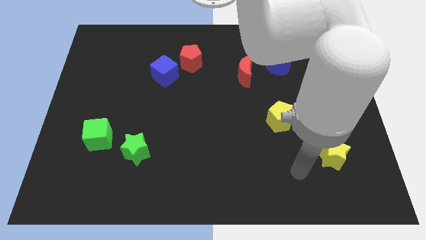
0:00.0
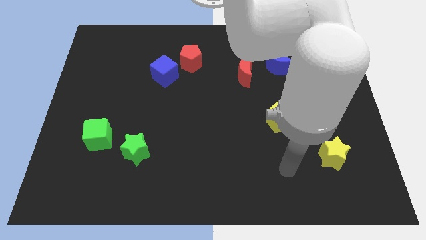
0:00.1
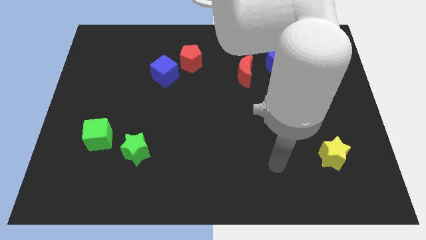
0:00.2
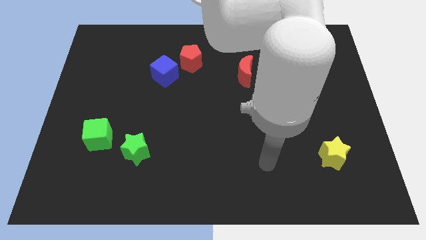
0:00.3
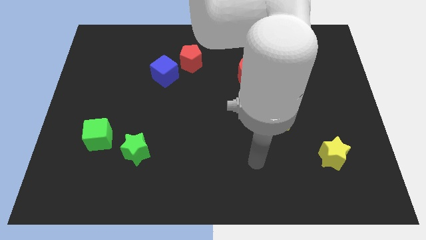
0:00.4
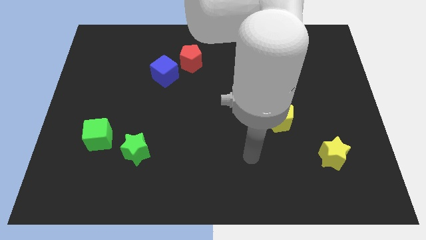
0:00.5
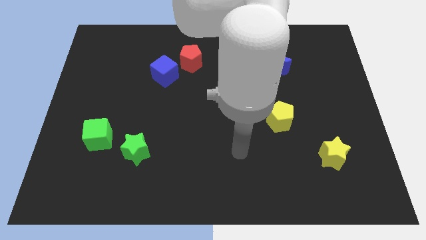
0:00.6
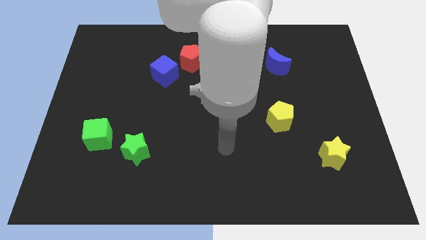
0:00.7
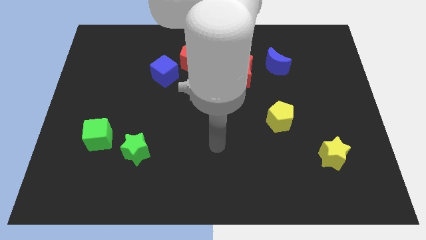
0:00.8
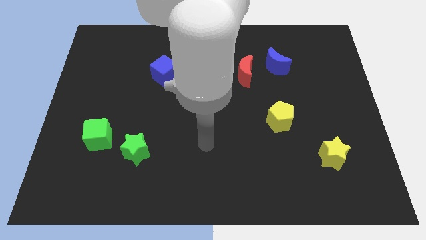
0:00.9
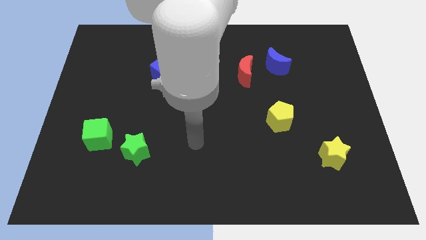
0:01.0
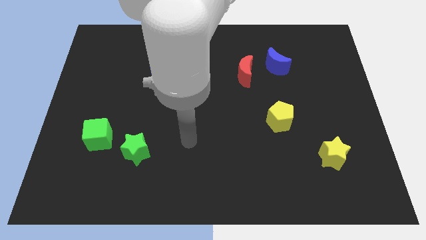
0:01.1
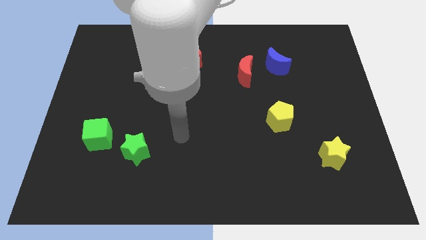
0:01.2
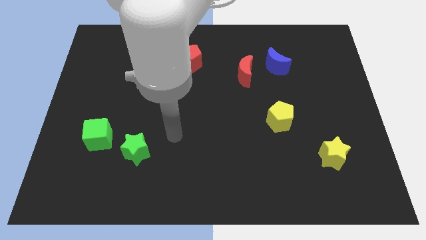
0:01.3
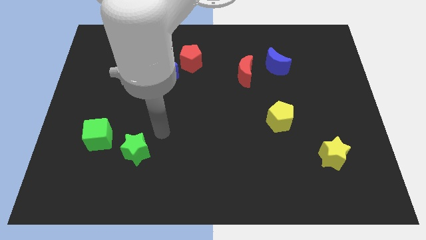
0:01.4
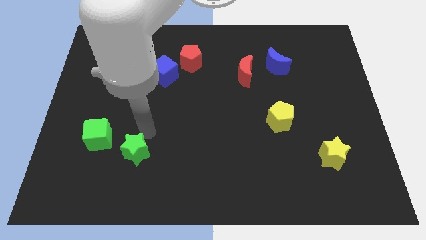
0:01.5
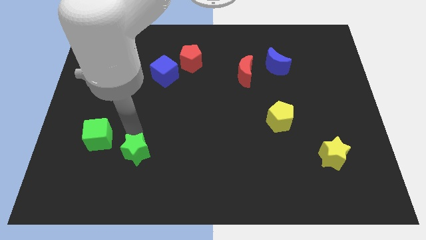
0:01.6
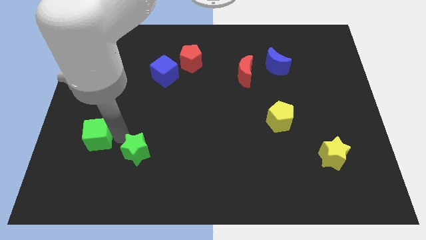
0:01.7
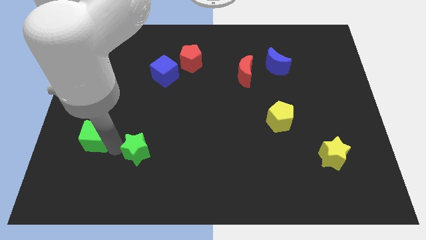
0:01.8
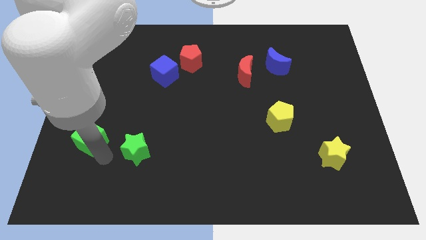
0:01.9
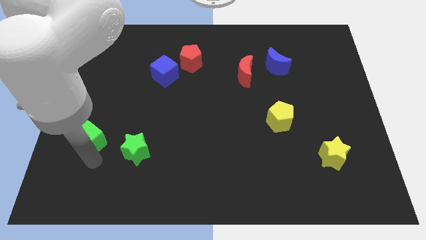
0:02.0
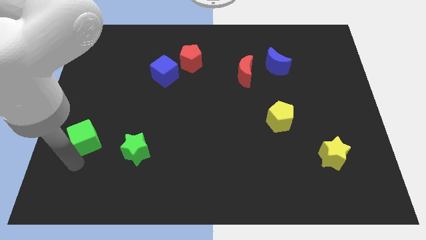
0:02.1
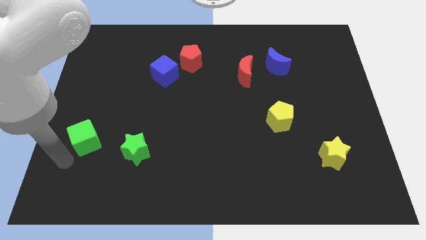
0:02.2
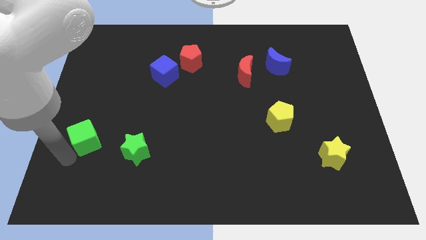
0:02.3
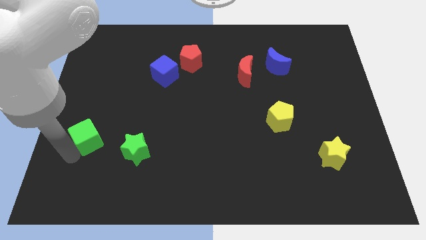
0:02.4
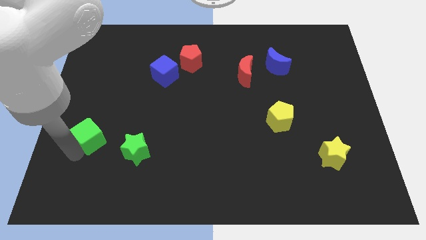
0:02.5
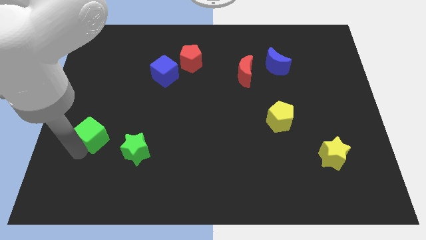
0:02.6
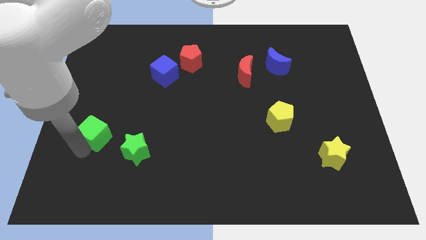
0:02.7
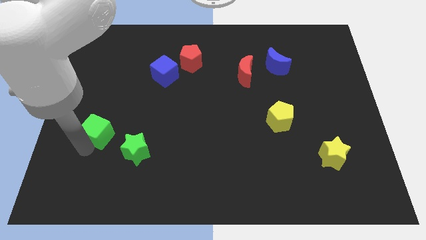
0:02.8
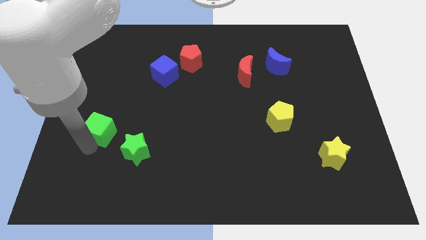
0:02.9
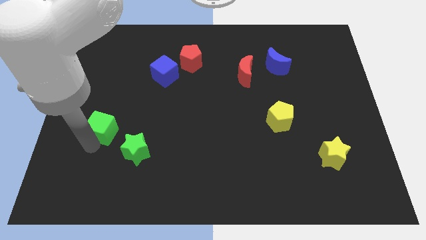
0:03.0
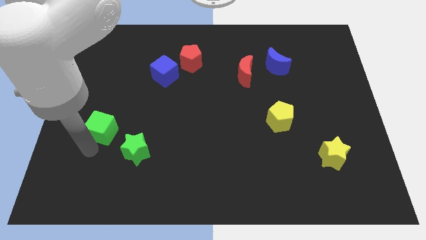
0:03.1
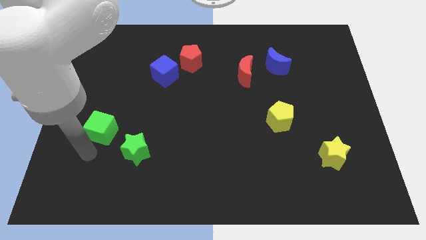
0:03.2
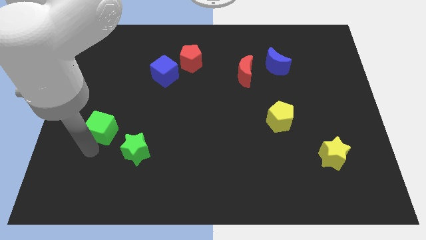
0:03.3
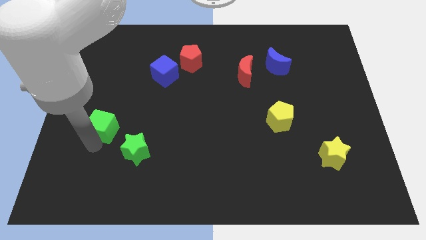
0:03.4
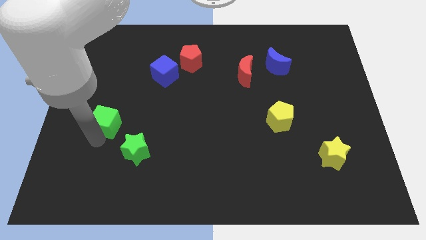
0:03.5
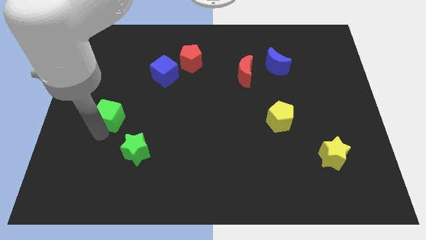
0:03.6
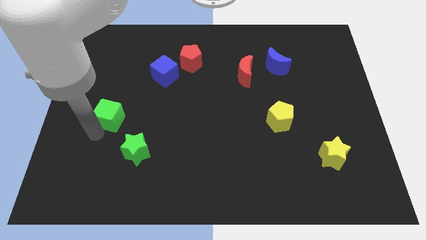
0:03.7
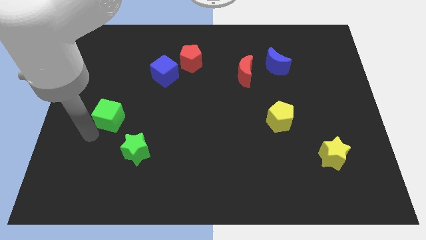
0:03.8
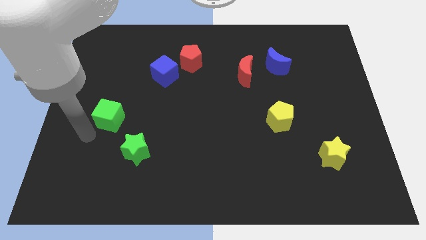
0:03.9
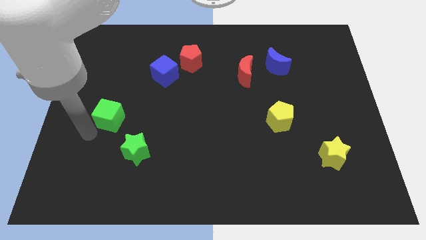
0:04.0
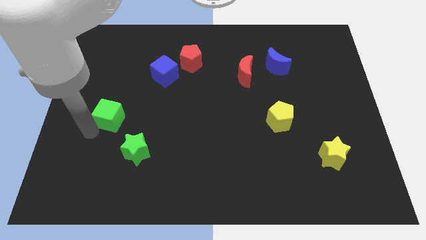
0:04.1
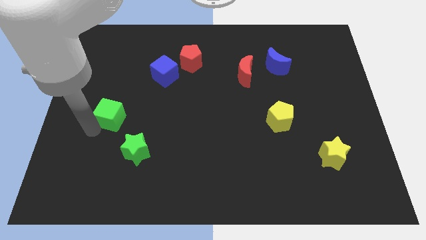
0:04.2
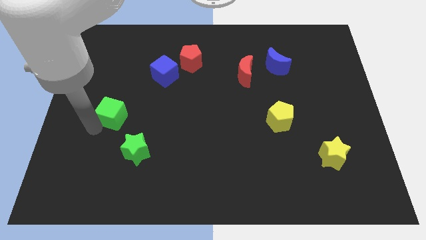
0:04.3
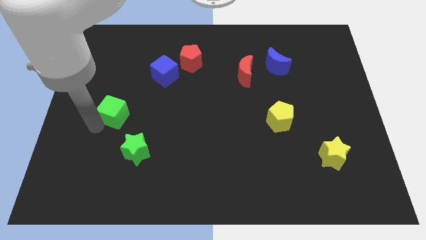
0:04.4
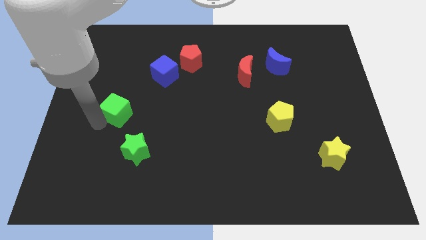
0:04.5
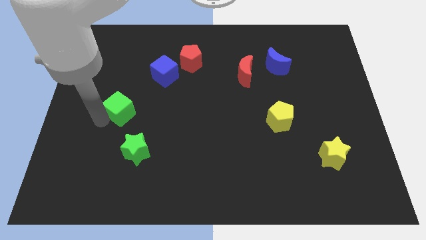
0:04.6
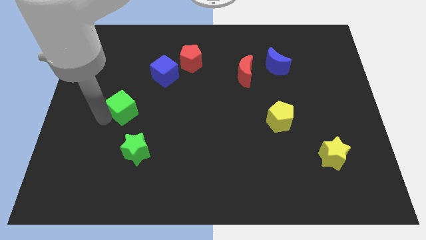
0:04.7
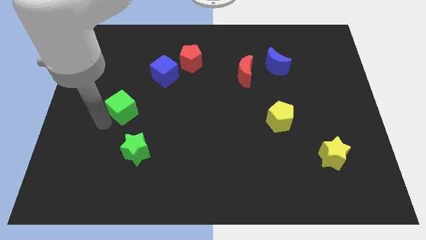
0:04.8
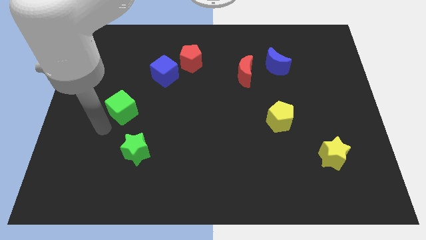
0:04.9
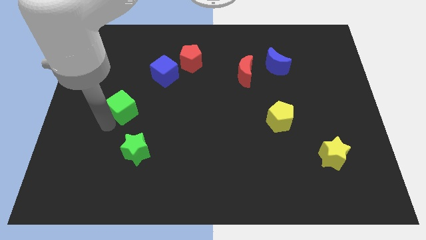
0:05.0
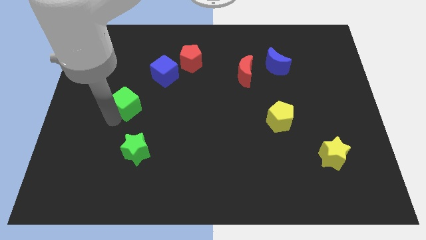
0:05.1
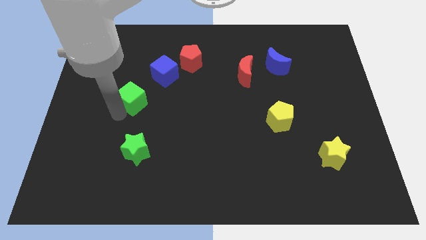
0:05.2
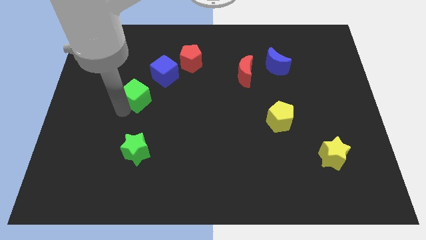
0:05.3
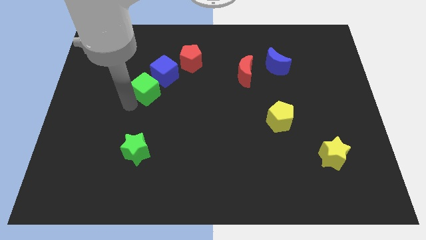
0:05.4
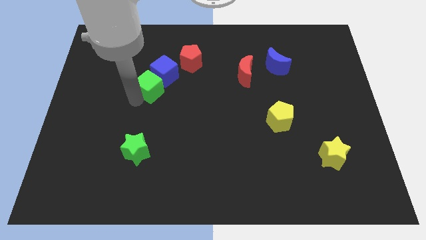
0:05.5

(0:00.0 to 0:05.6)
put the green cube to the blue cube

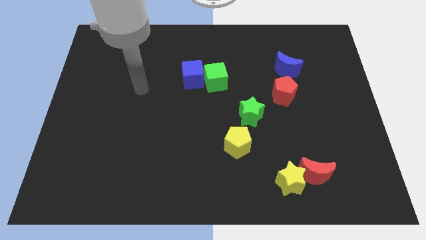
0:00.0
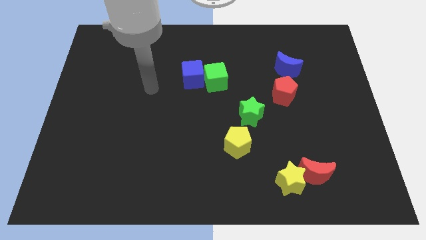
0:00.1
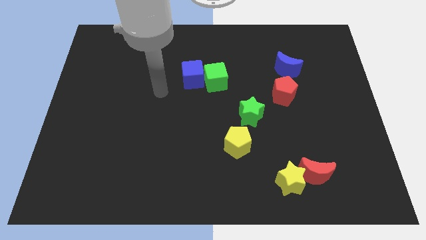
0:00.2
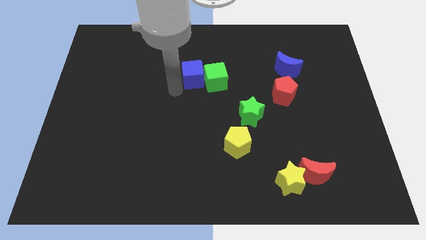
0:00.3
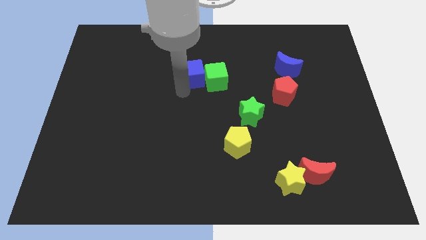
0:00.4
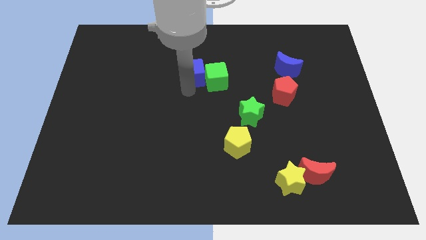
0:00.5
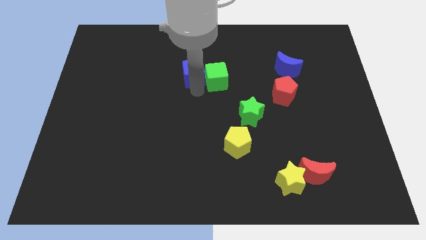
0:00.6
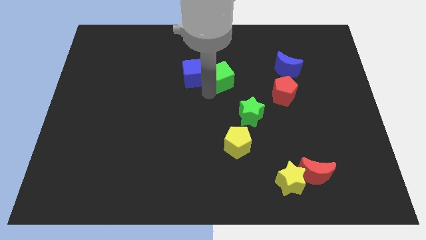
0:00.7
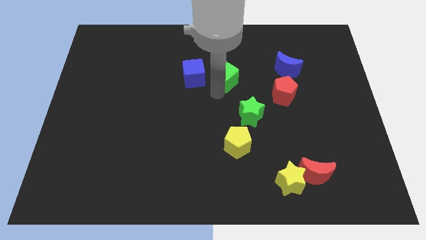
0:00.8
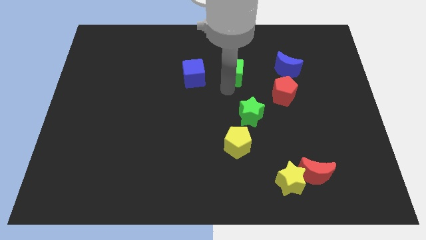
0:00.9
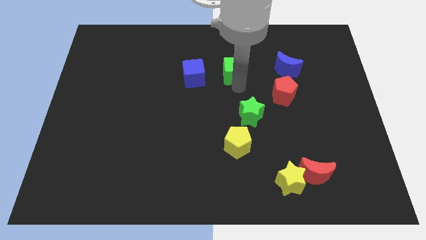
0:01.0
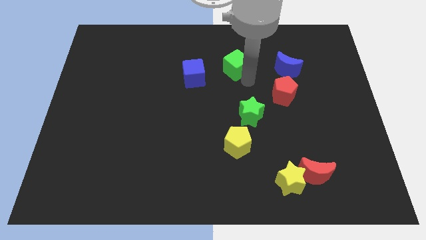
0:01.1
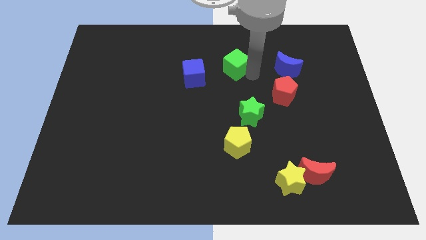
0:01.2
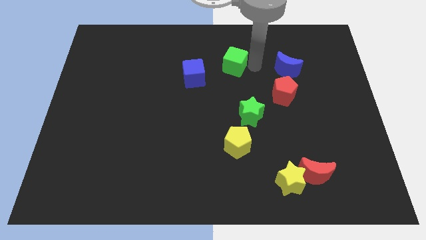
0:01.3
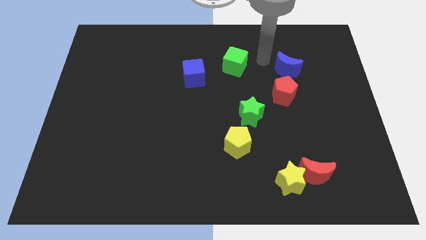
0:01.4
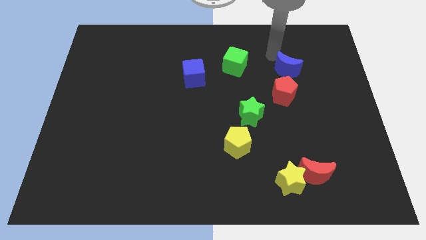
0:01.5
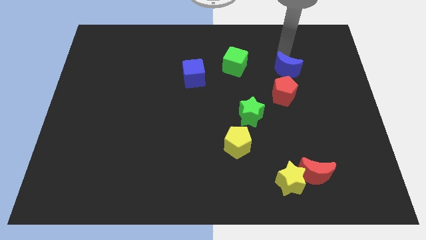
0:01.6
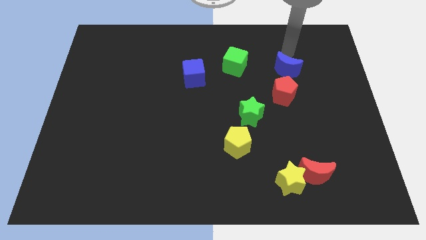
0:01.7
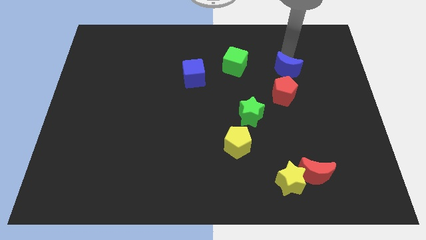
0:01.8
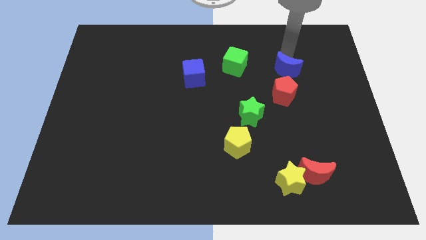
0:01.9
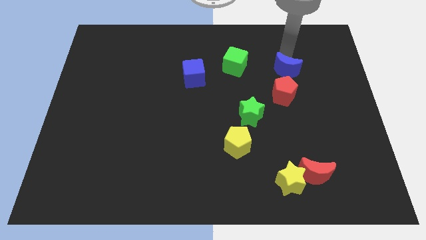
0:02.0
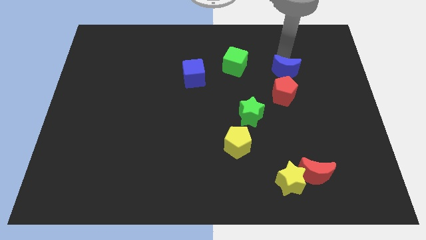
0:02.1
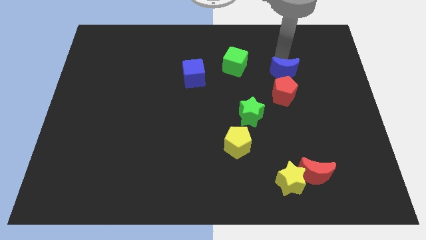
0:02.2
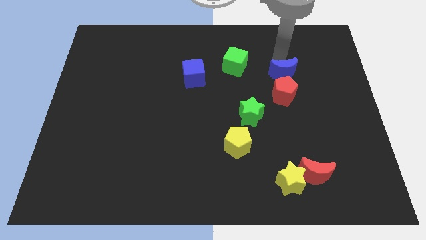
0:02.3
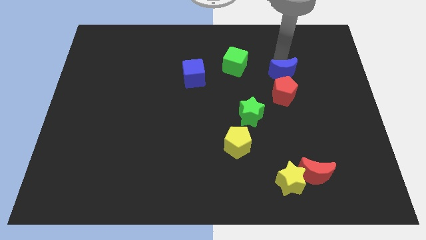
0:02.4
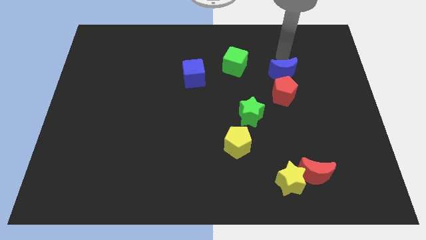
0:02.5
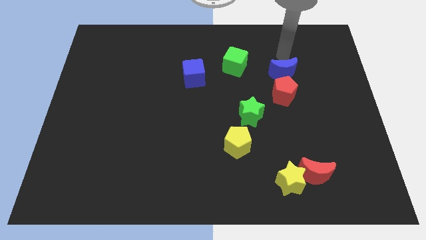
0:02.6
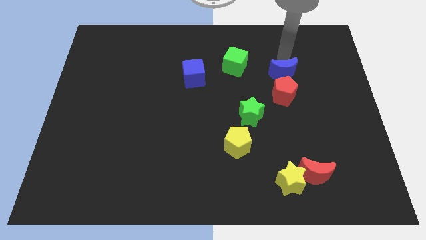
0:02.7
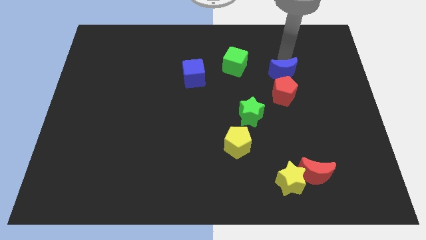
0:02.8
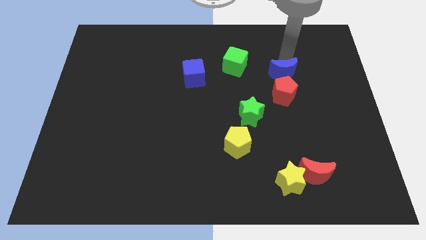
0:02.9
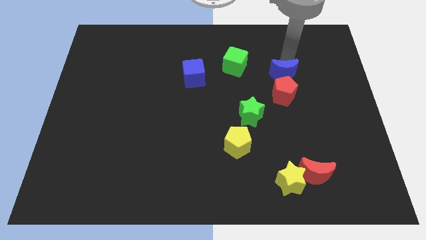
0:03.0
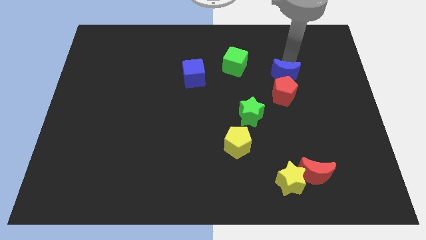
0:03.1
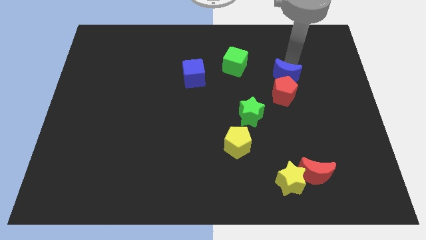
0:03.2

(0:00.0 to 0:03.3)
push the blue moon close to the red pentagon
